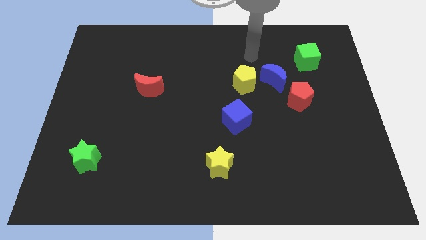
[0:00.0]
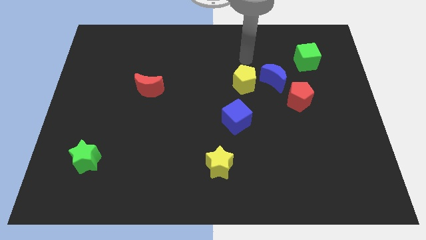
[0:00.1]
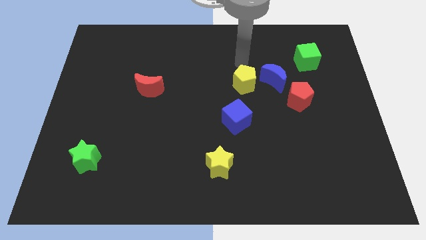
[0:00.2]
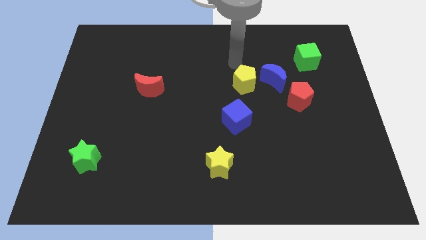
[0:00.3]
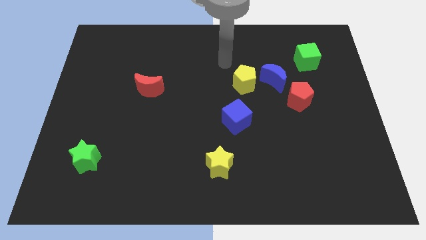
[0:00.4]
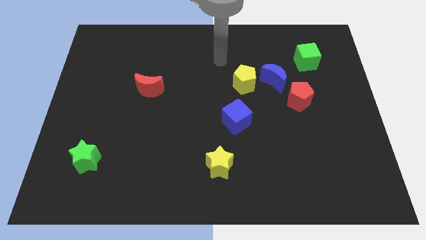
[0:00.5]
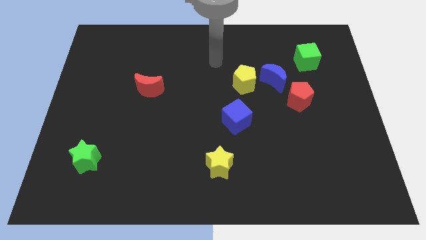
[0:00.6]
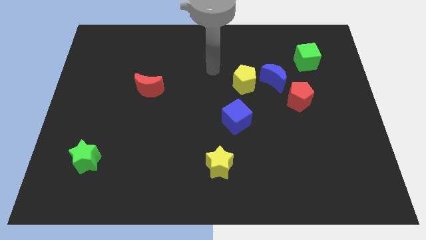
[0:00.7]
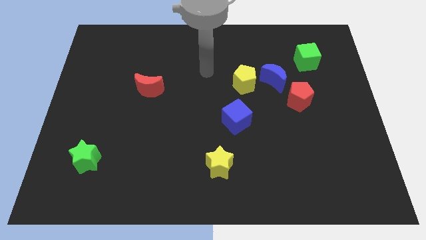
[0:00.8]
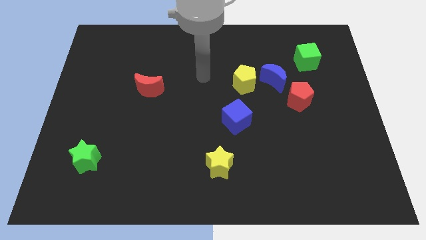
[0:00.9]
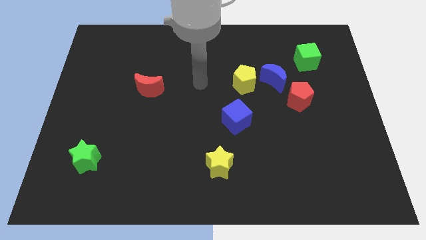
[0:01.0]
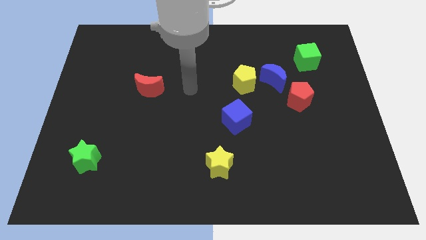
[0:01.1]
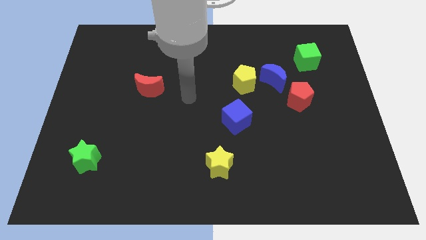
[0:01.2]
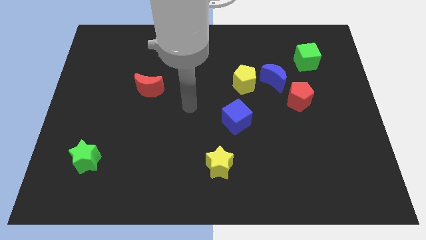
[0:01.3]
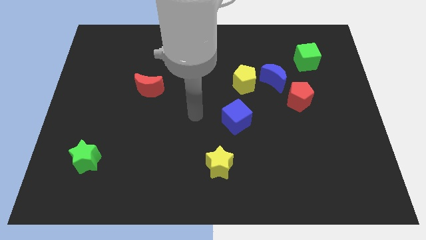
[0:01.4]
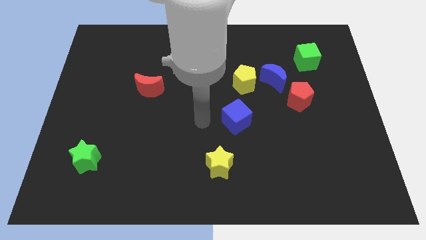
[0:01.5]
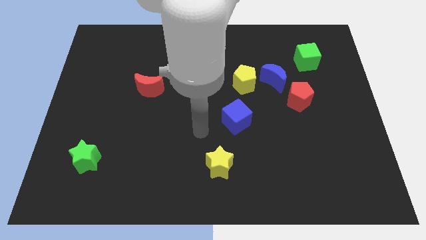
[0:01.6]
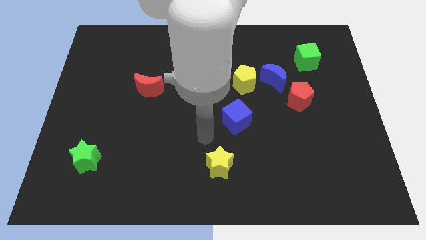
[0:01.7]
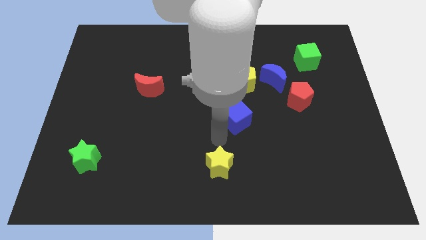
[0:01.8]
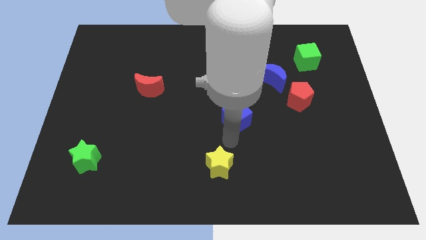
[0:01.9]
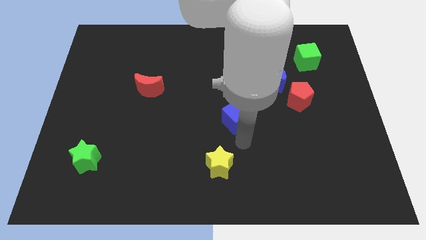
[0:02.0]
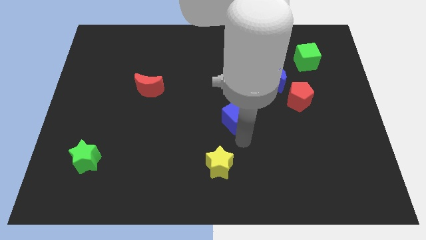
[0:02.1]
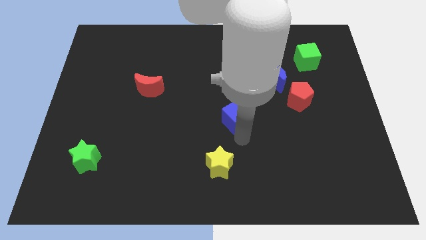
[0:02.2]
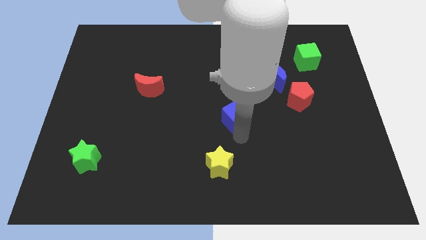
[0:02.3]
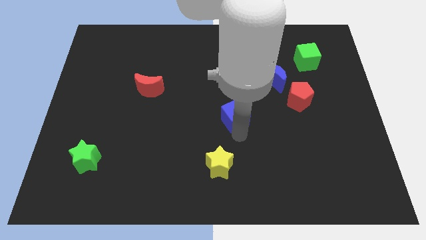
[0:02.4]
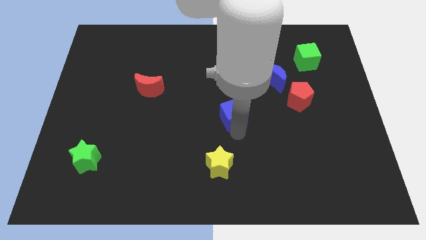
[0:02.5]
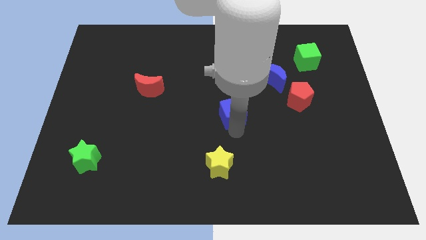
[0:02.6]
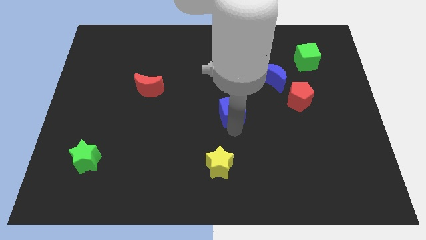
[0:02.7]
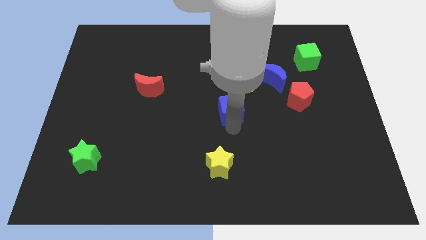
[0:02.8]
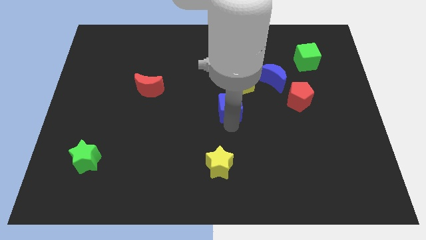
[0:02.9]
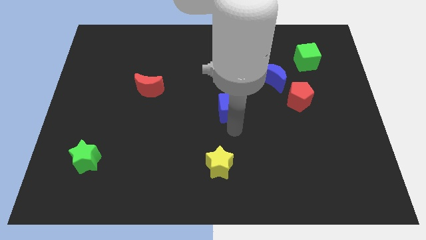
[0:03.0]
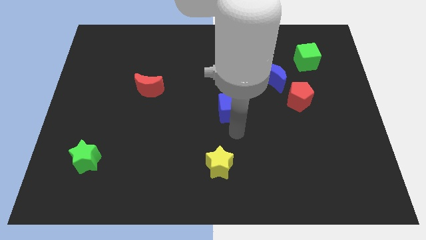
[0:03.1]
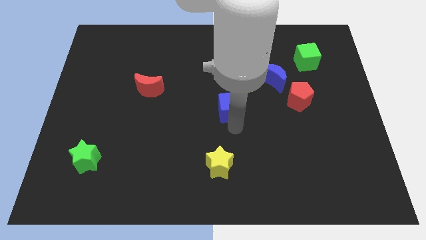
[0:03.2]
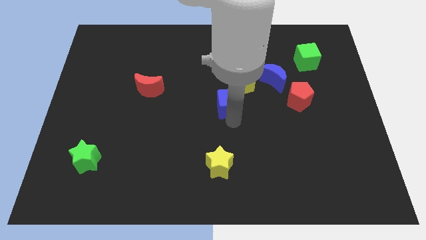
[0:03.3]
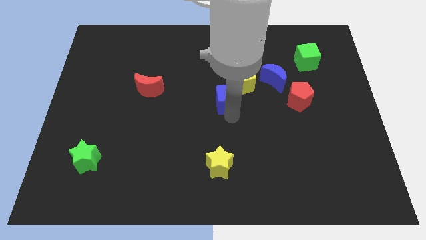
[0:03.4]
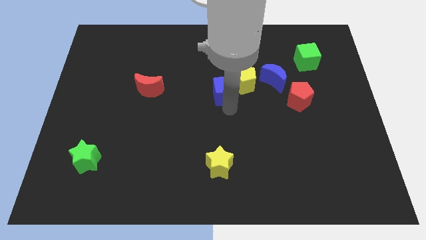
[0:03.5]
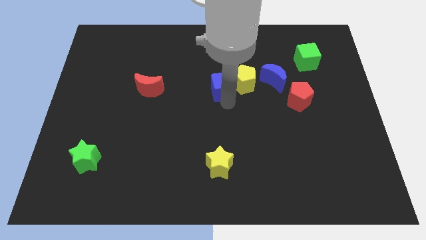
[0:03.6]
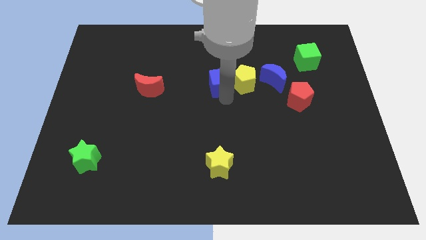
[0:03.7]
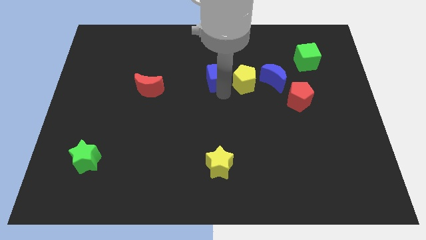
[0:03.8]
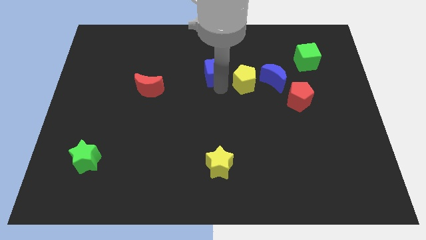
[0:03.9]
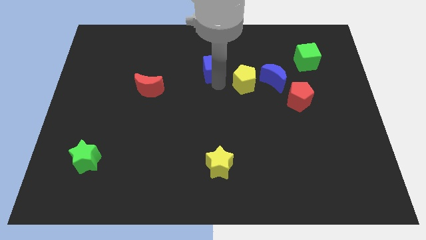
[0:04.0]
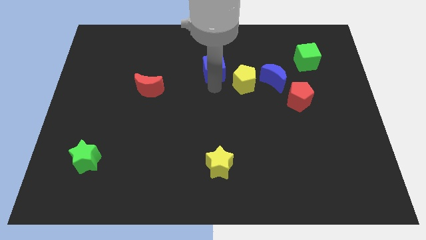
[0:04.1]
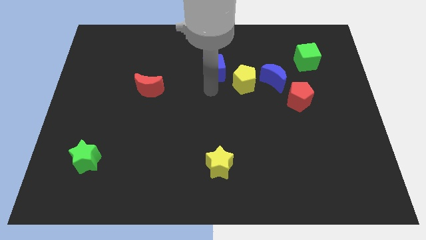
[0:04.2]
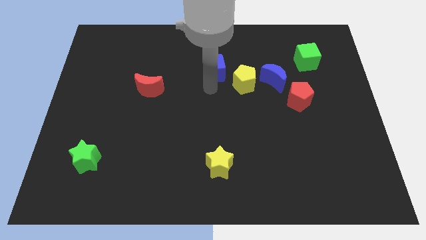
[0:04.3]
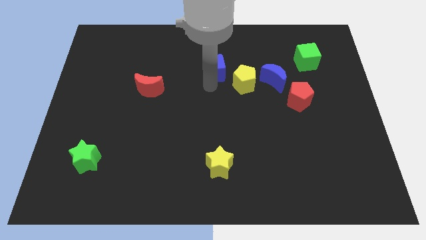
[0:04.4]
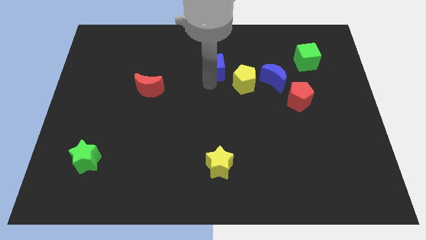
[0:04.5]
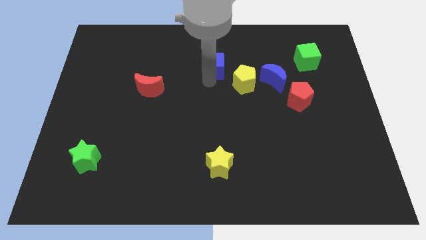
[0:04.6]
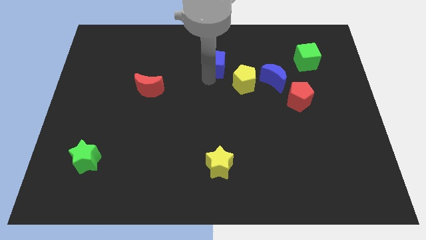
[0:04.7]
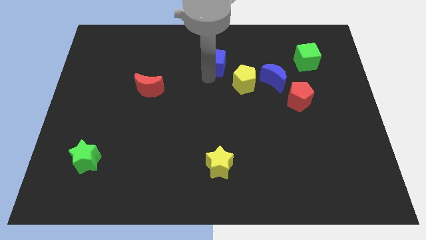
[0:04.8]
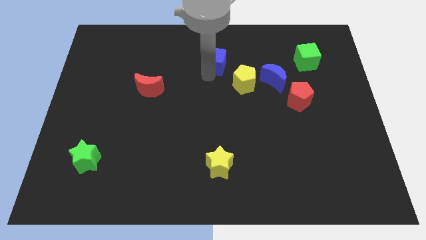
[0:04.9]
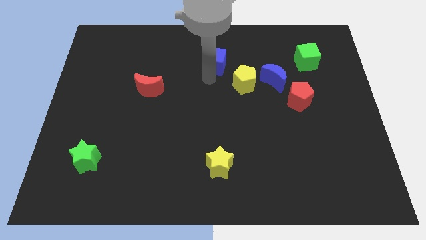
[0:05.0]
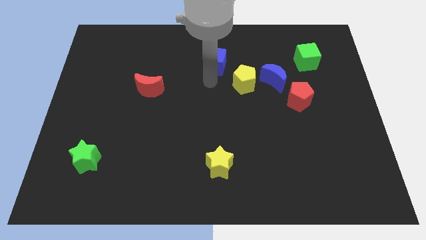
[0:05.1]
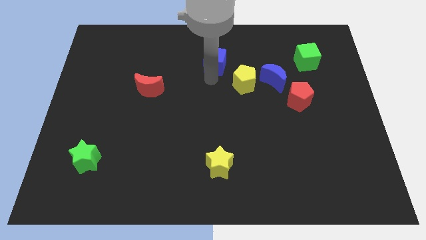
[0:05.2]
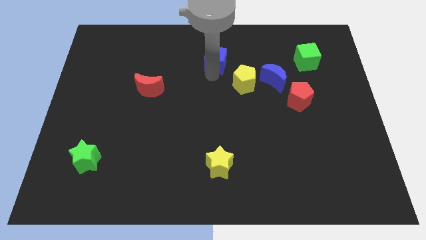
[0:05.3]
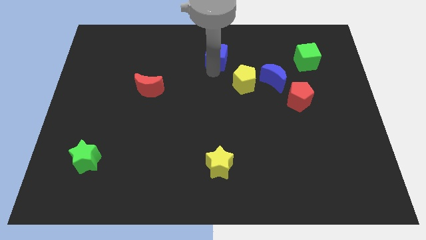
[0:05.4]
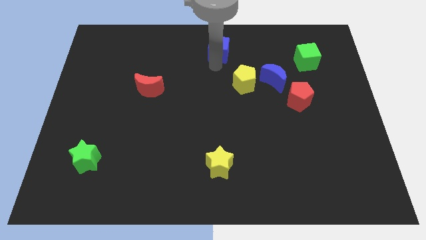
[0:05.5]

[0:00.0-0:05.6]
put the blue cube to the top

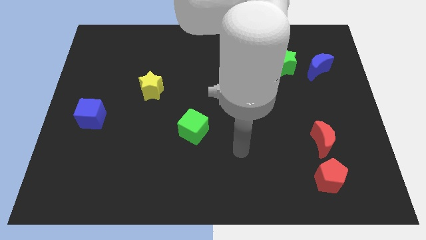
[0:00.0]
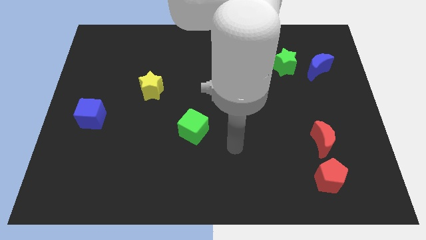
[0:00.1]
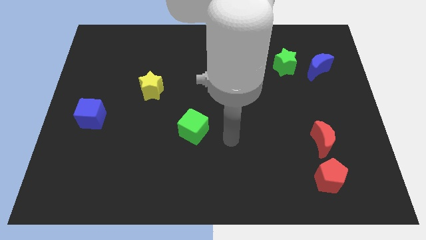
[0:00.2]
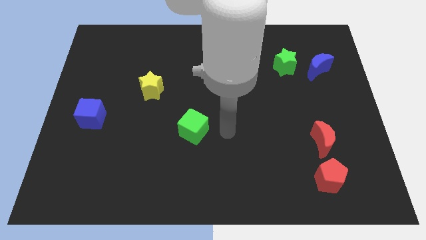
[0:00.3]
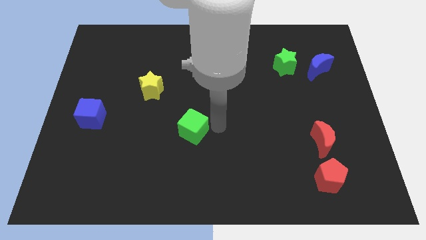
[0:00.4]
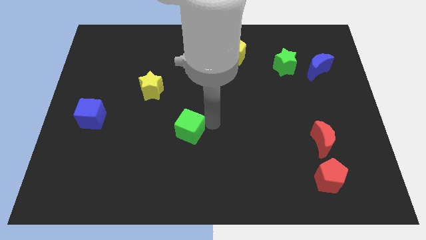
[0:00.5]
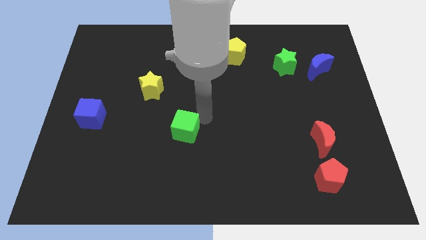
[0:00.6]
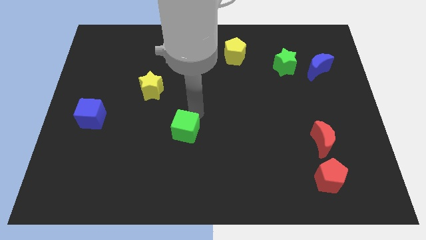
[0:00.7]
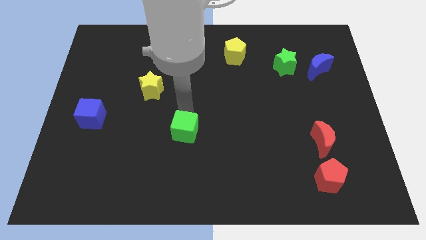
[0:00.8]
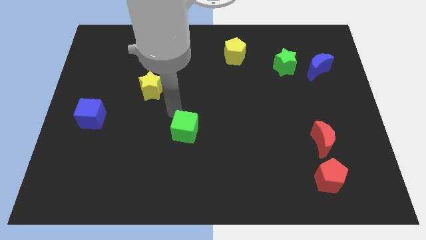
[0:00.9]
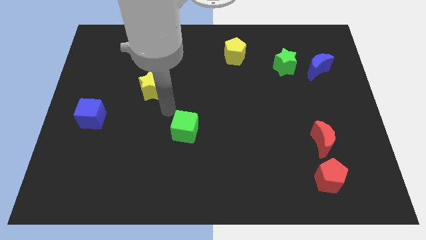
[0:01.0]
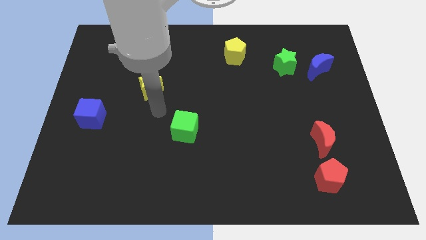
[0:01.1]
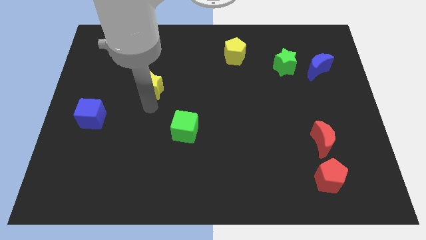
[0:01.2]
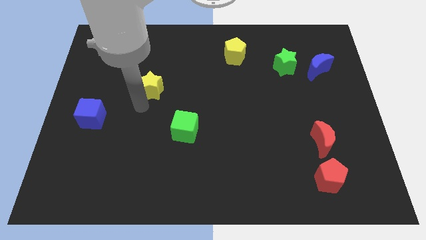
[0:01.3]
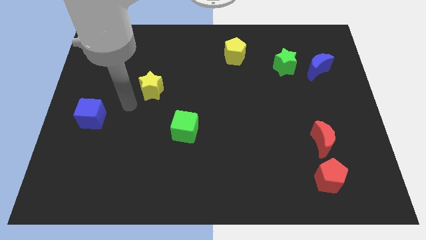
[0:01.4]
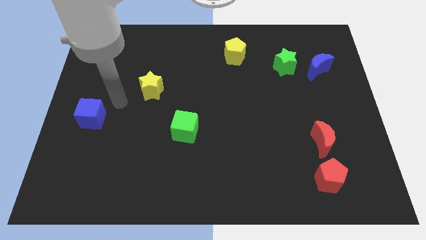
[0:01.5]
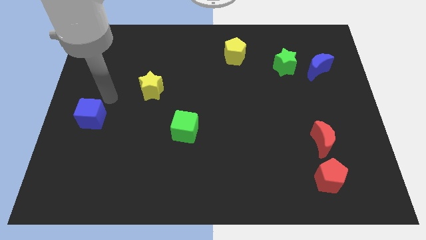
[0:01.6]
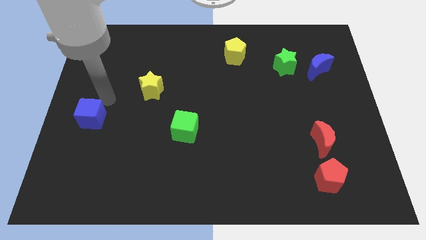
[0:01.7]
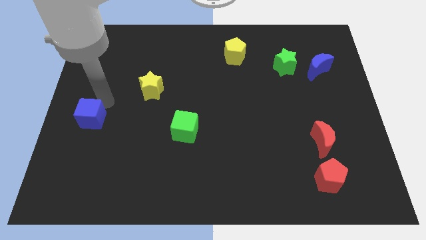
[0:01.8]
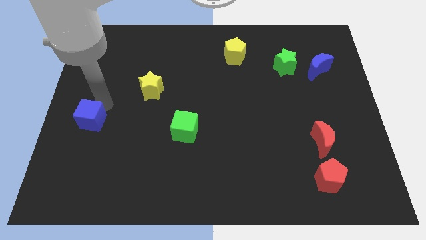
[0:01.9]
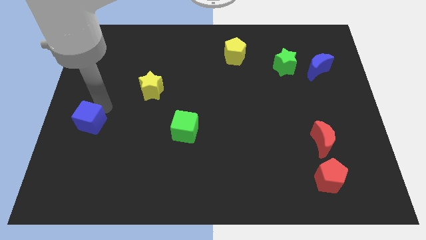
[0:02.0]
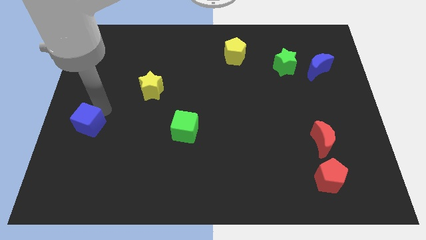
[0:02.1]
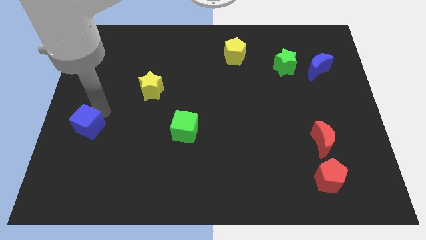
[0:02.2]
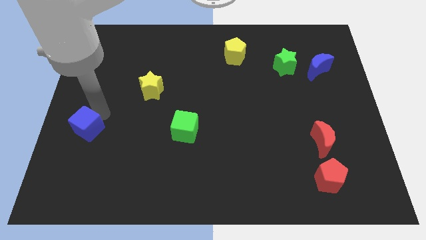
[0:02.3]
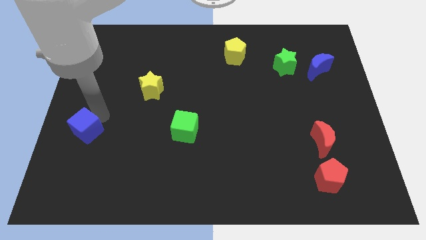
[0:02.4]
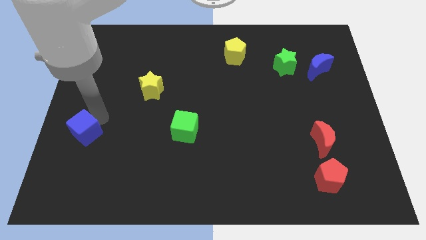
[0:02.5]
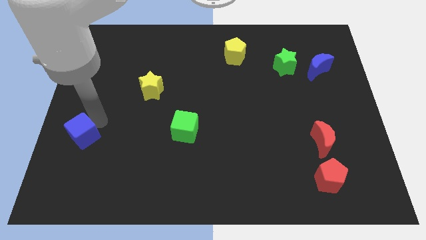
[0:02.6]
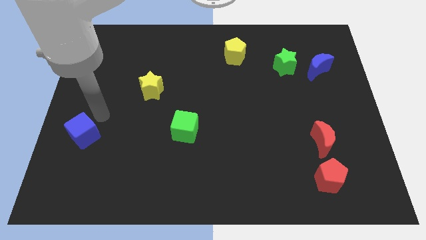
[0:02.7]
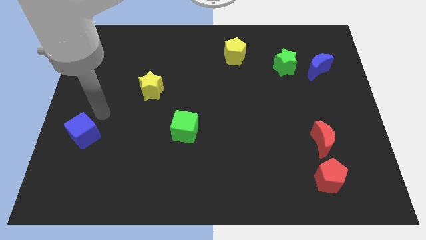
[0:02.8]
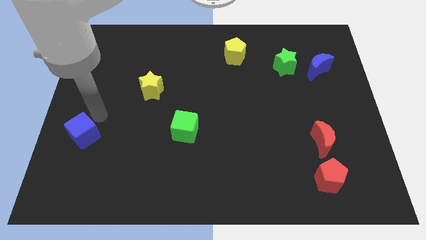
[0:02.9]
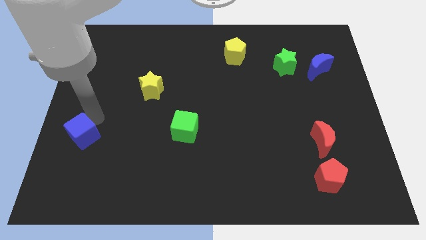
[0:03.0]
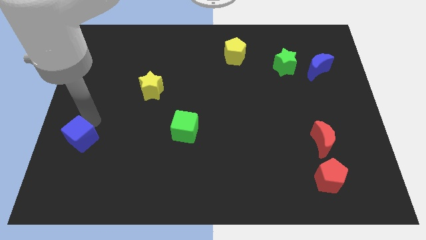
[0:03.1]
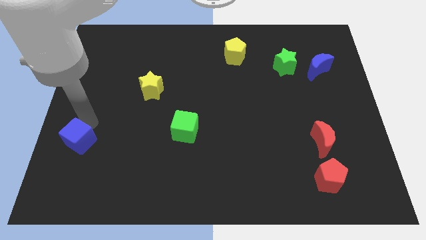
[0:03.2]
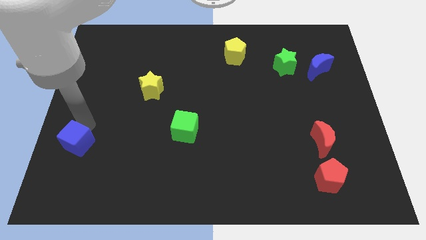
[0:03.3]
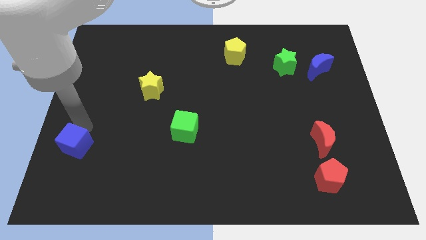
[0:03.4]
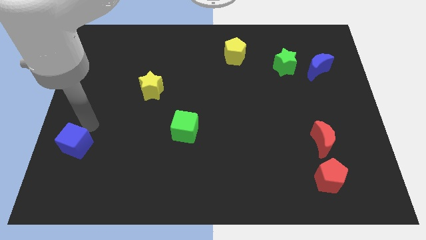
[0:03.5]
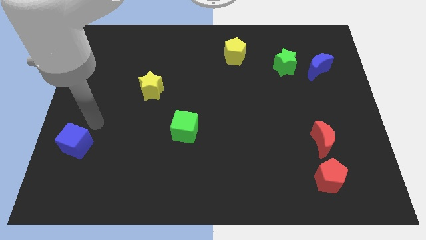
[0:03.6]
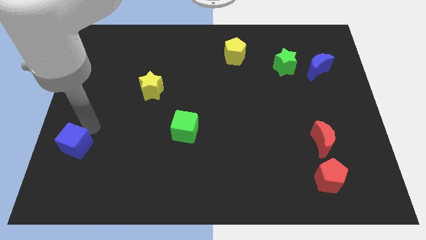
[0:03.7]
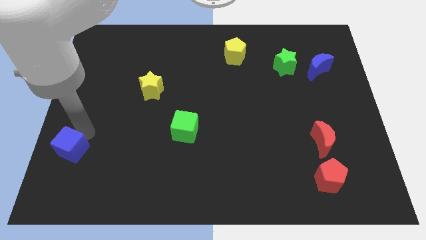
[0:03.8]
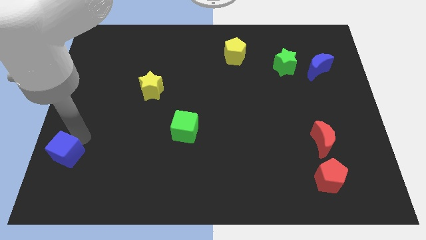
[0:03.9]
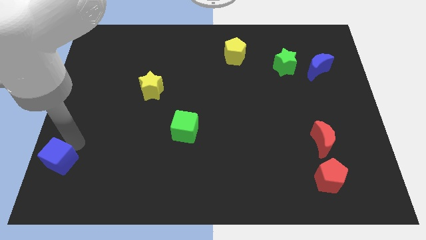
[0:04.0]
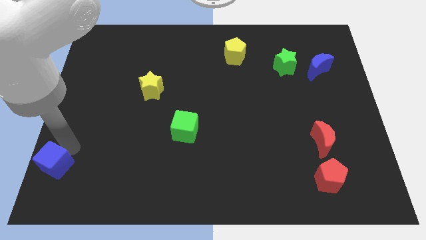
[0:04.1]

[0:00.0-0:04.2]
push the blue cube to the bottom left
